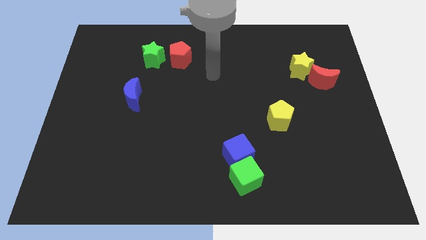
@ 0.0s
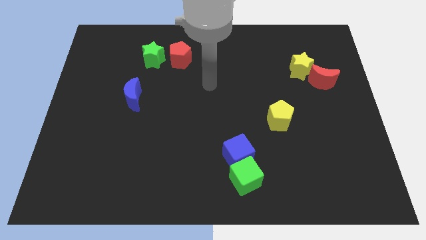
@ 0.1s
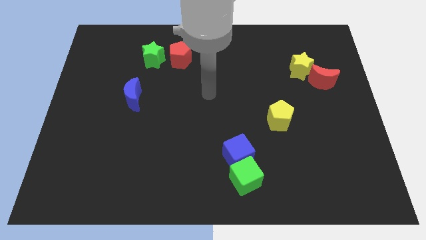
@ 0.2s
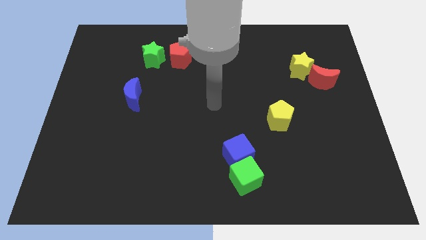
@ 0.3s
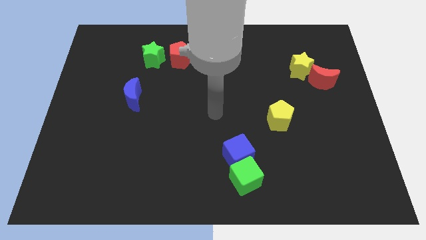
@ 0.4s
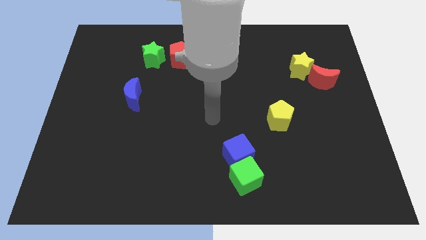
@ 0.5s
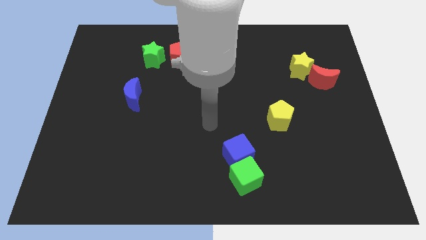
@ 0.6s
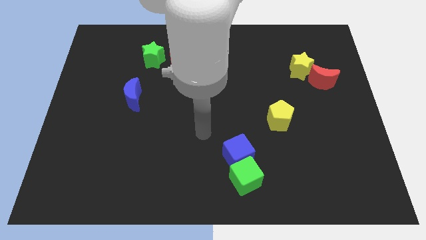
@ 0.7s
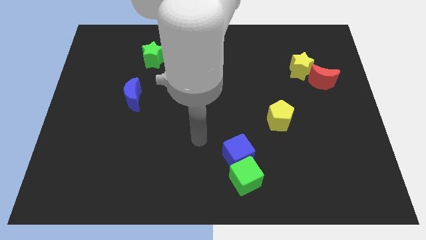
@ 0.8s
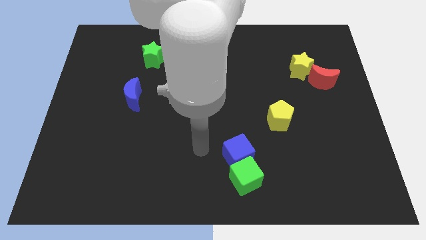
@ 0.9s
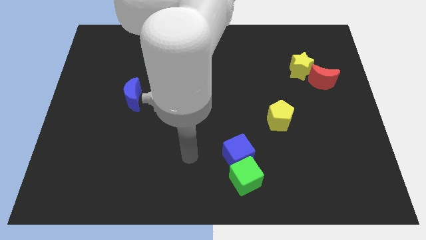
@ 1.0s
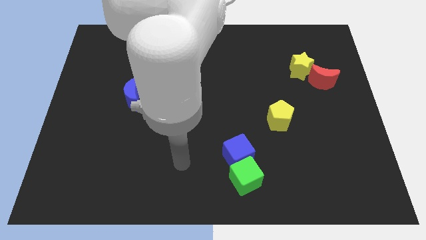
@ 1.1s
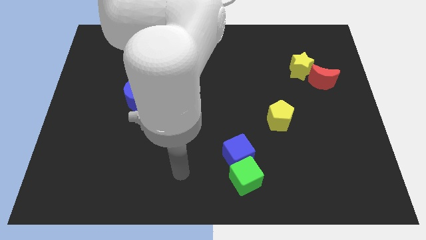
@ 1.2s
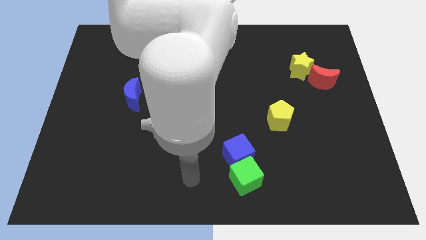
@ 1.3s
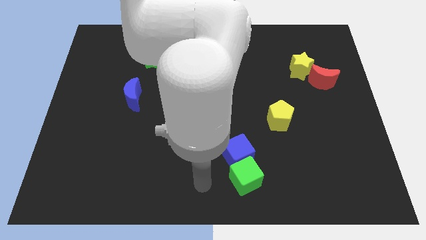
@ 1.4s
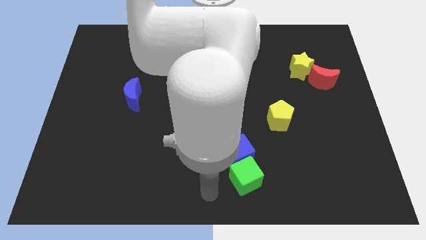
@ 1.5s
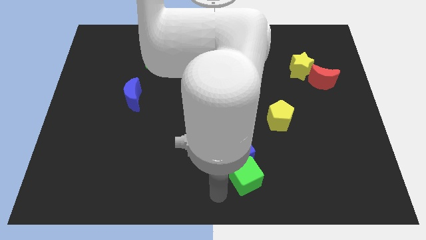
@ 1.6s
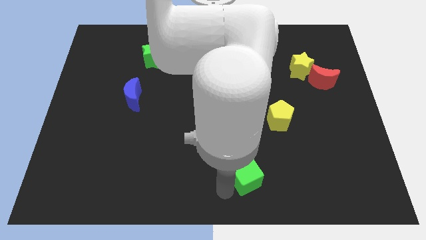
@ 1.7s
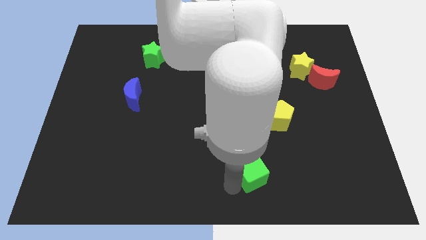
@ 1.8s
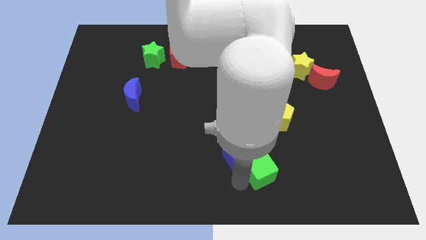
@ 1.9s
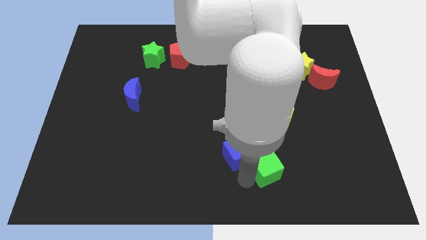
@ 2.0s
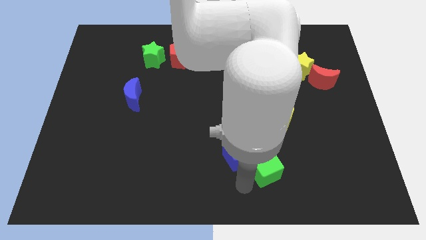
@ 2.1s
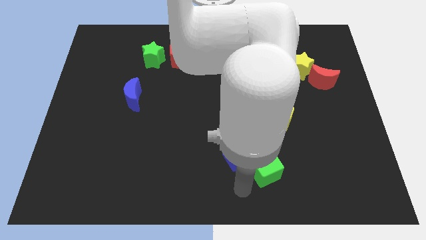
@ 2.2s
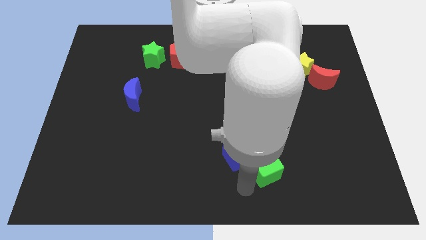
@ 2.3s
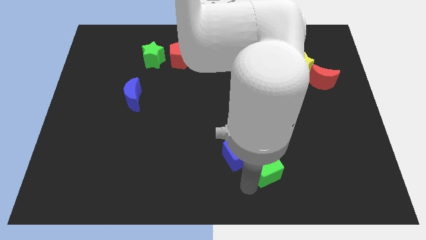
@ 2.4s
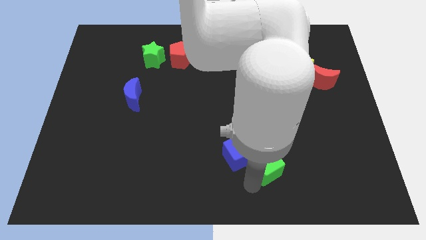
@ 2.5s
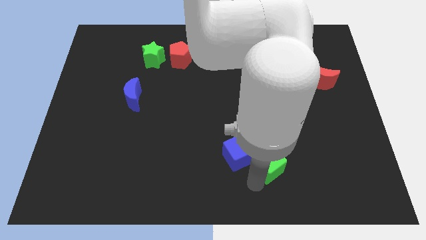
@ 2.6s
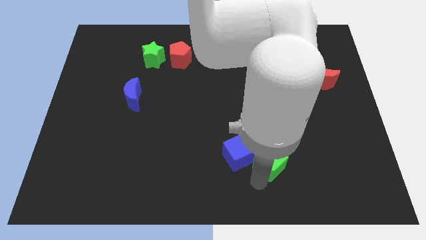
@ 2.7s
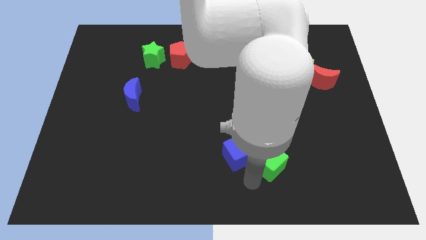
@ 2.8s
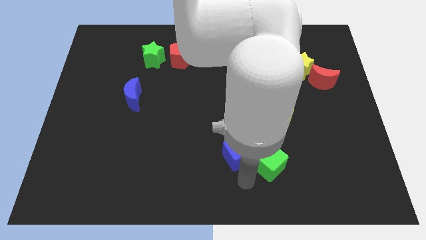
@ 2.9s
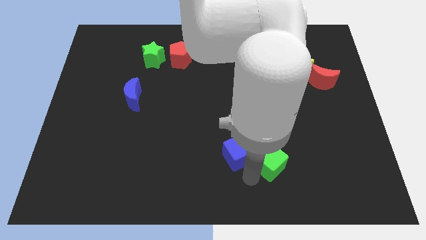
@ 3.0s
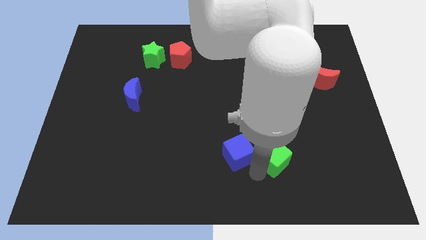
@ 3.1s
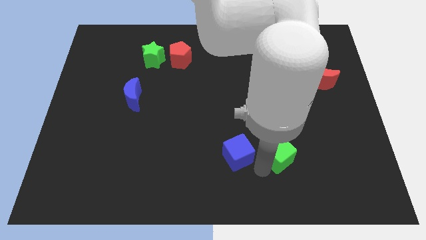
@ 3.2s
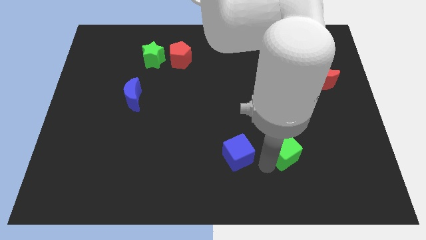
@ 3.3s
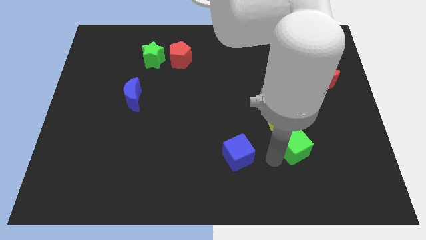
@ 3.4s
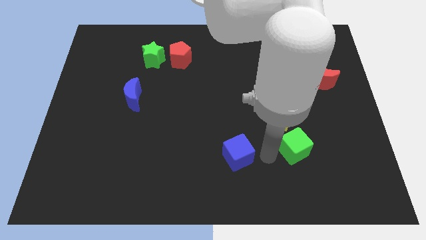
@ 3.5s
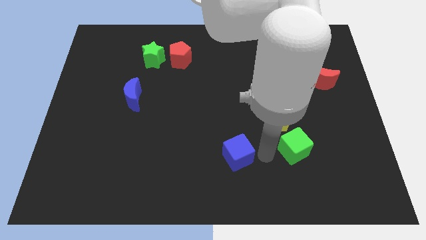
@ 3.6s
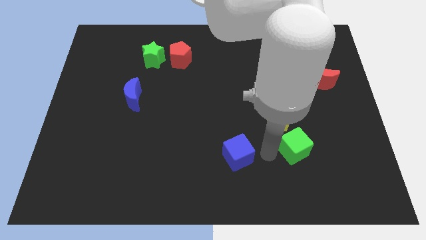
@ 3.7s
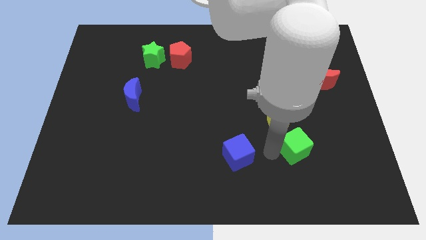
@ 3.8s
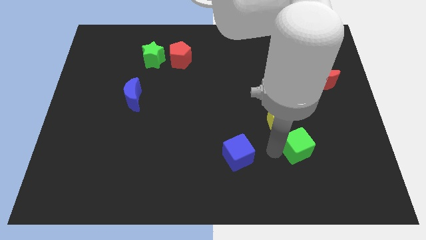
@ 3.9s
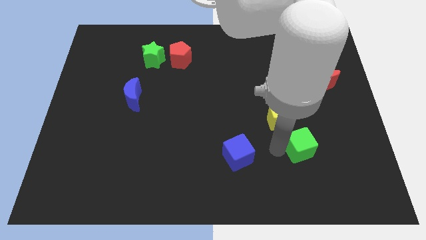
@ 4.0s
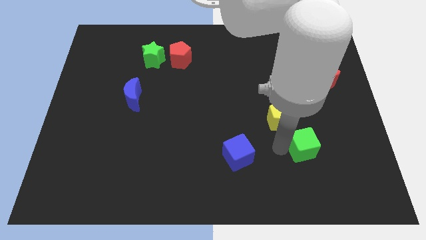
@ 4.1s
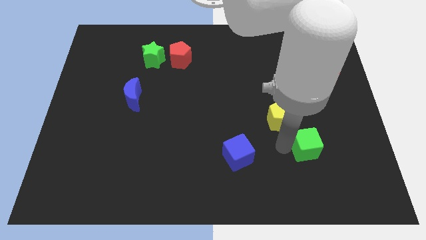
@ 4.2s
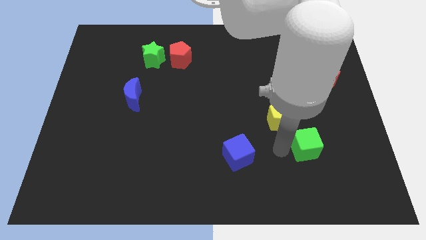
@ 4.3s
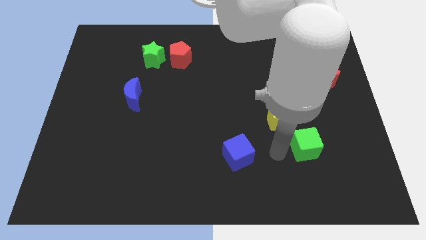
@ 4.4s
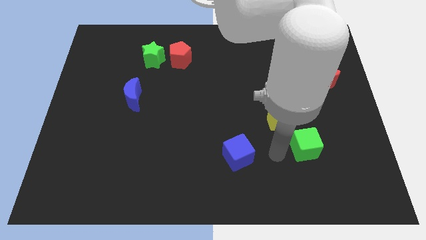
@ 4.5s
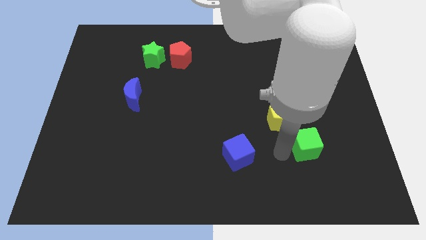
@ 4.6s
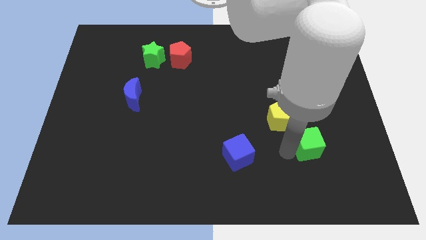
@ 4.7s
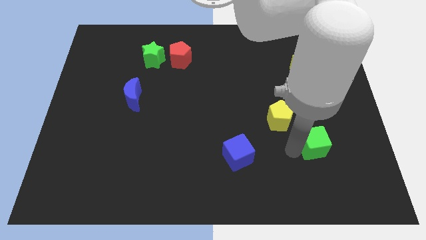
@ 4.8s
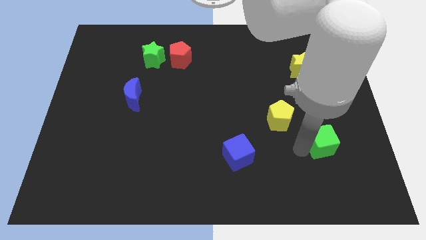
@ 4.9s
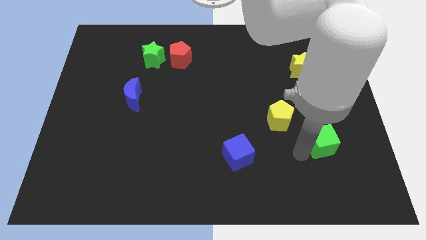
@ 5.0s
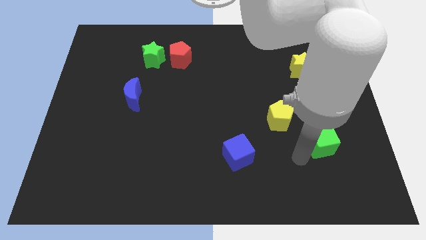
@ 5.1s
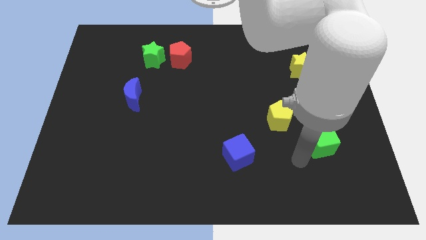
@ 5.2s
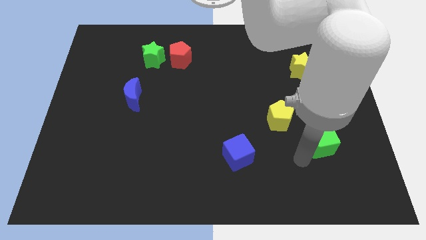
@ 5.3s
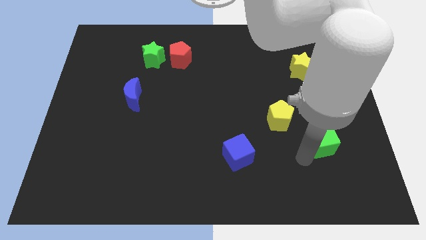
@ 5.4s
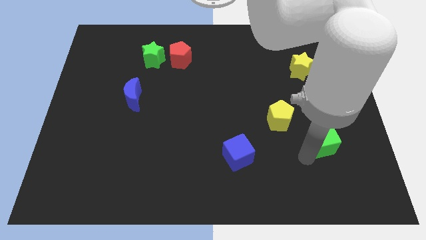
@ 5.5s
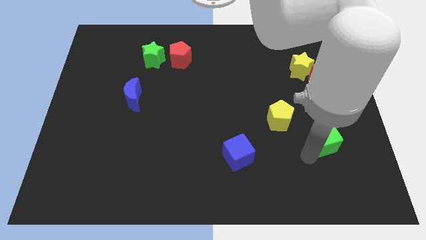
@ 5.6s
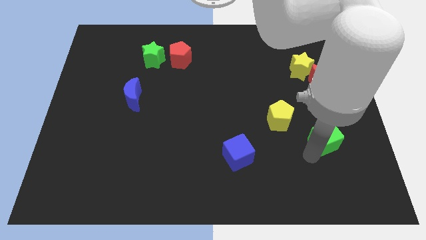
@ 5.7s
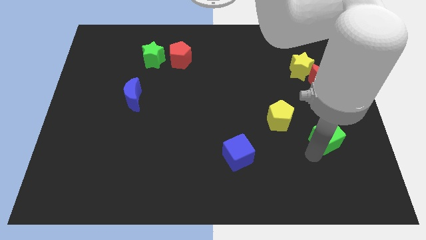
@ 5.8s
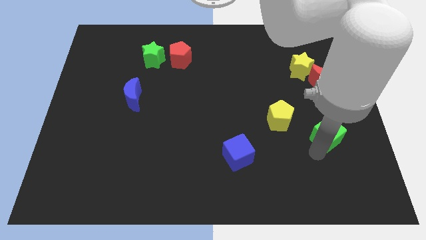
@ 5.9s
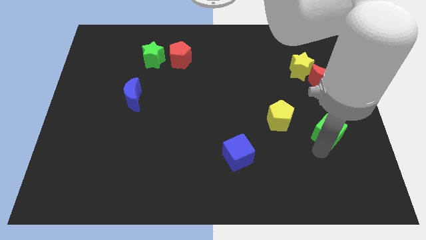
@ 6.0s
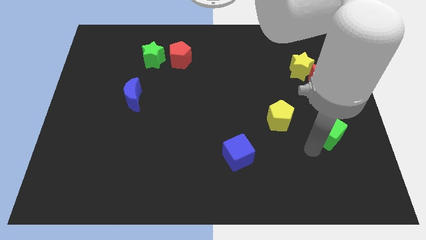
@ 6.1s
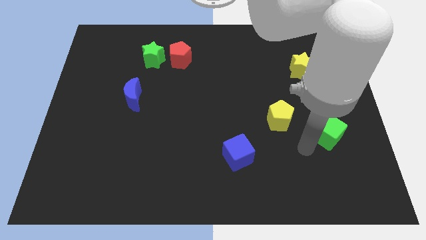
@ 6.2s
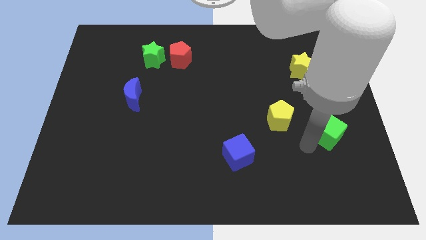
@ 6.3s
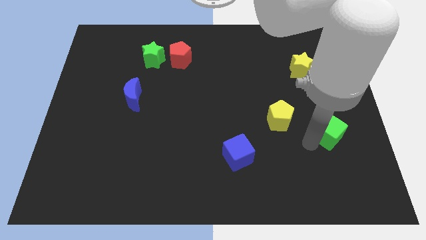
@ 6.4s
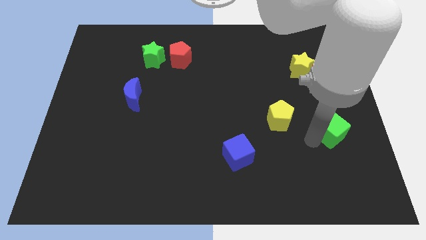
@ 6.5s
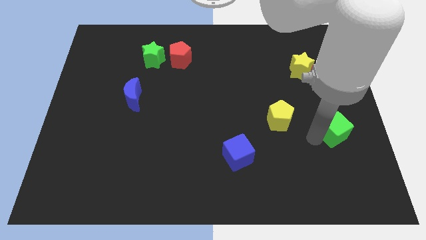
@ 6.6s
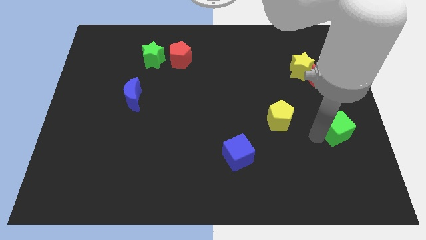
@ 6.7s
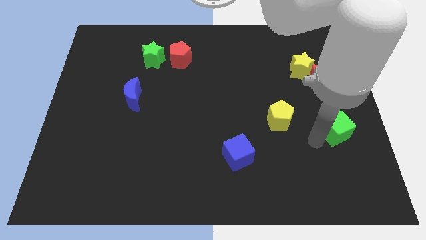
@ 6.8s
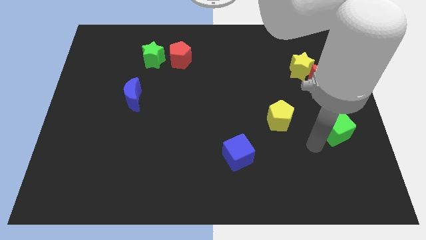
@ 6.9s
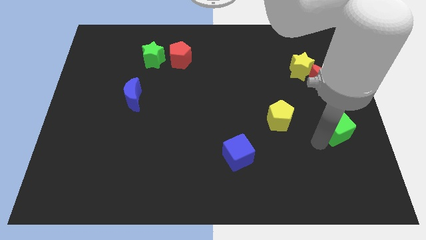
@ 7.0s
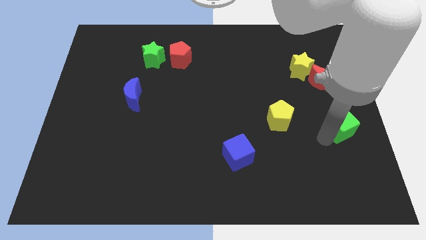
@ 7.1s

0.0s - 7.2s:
put the green cube to the right side
